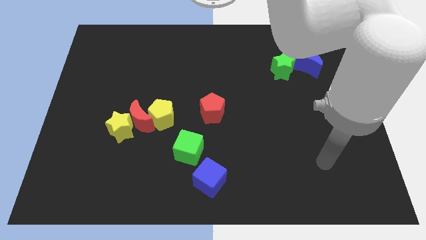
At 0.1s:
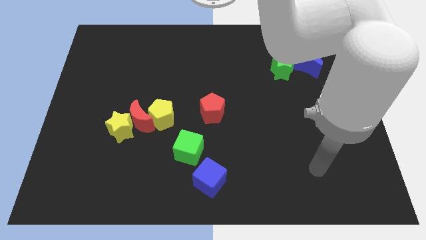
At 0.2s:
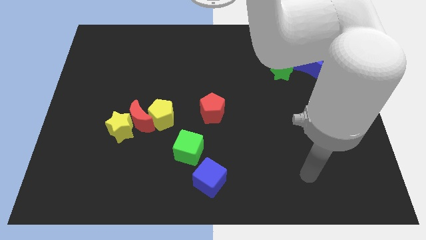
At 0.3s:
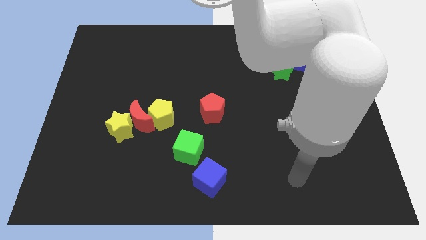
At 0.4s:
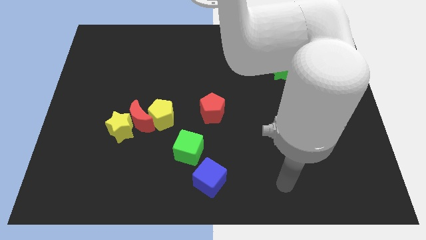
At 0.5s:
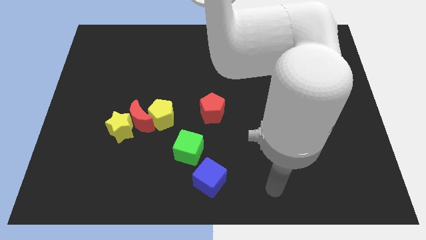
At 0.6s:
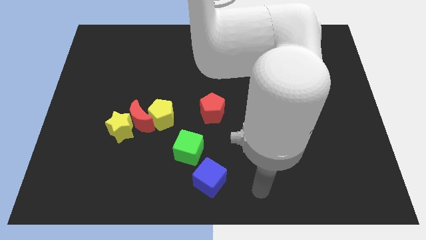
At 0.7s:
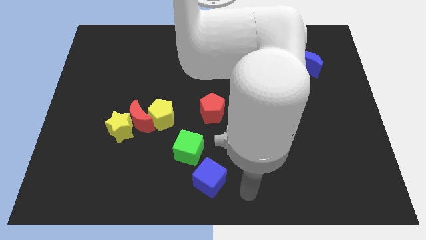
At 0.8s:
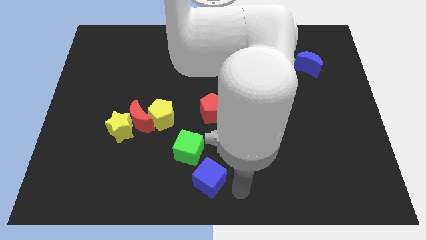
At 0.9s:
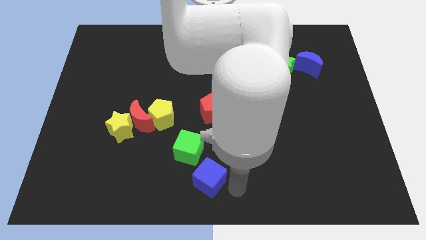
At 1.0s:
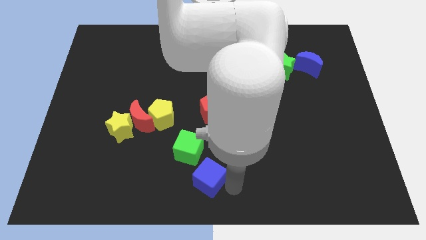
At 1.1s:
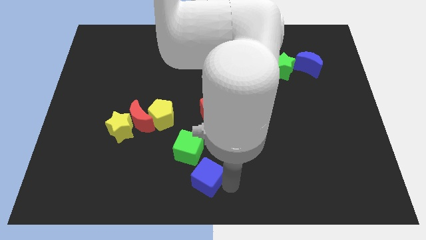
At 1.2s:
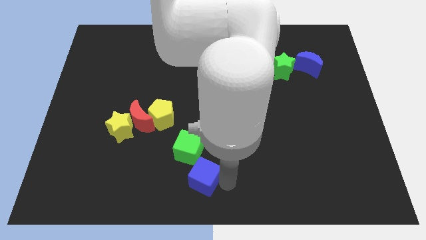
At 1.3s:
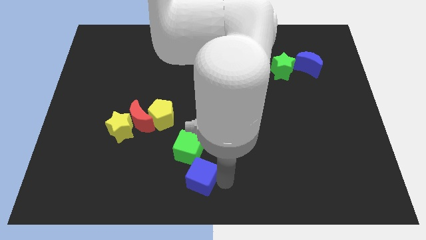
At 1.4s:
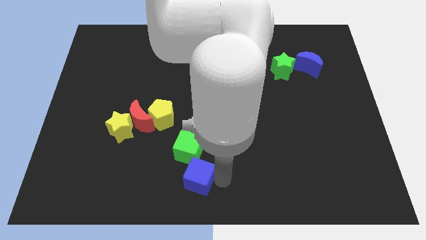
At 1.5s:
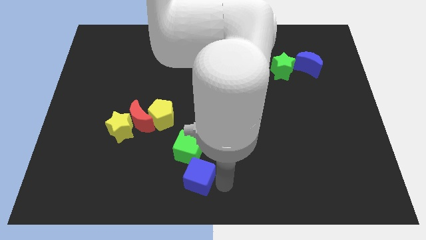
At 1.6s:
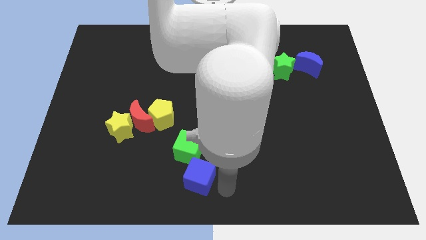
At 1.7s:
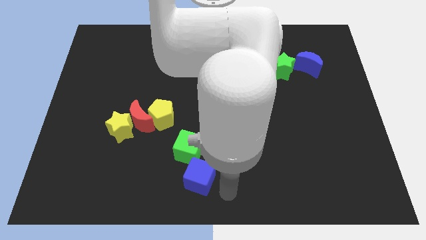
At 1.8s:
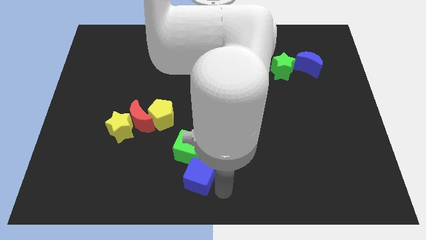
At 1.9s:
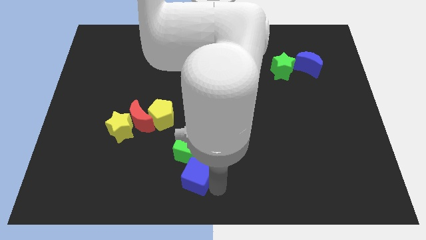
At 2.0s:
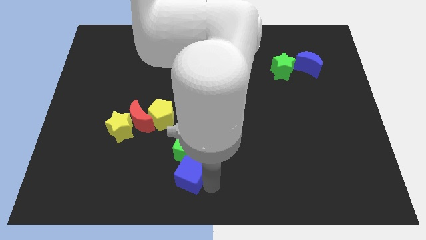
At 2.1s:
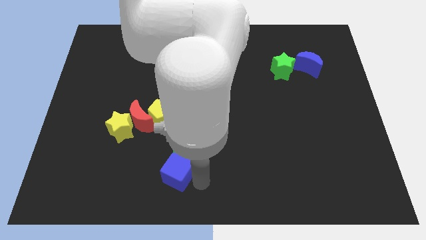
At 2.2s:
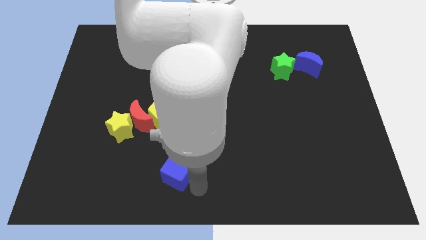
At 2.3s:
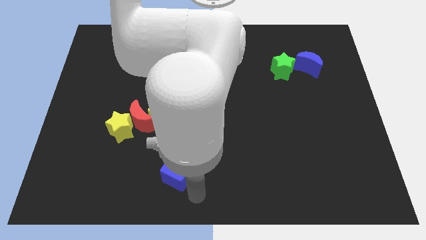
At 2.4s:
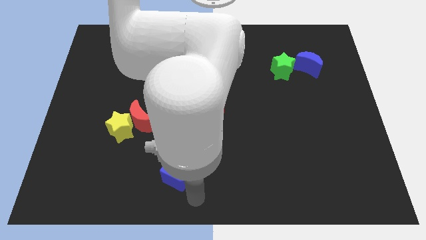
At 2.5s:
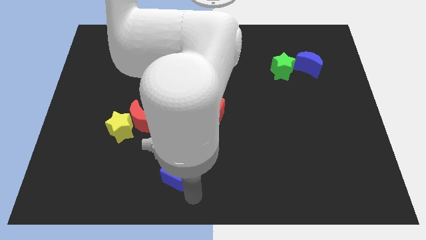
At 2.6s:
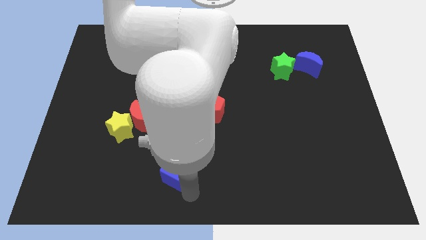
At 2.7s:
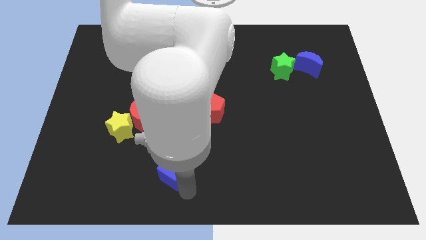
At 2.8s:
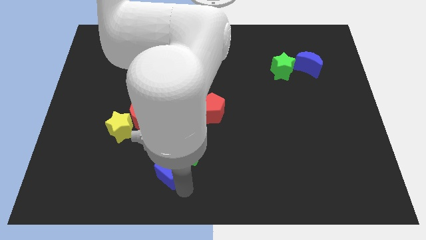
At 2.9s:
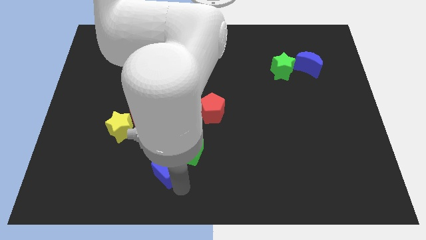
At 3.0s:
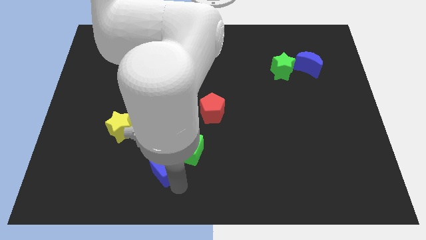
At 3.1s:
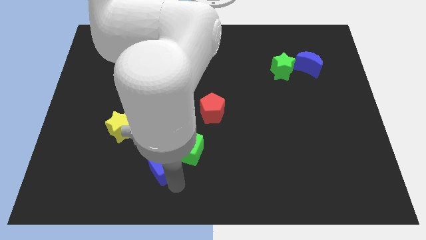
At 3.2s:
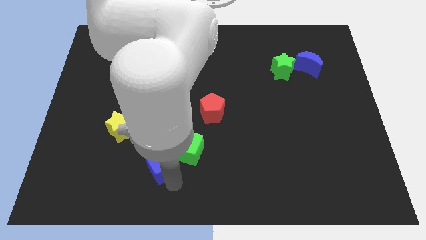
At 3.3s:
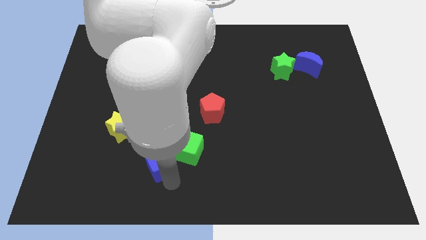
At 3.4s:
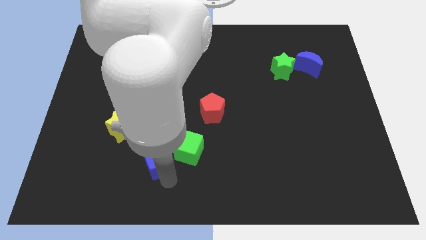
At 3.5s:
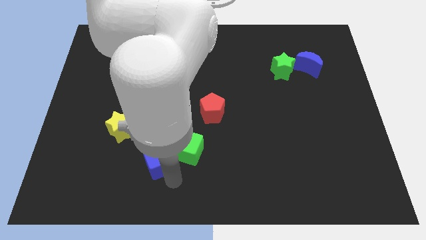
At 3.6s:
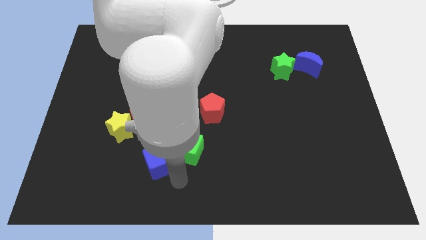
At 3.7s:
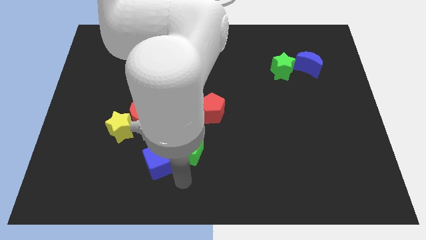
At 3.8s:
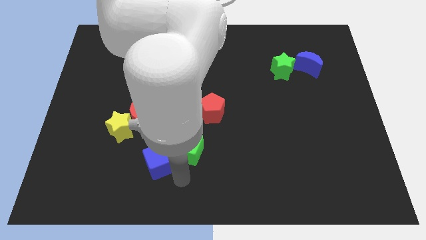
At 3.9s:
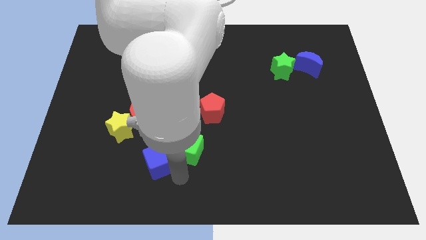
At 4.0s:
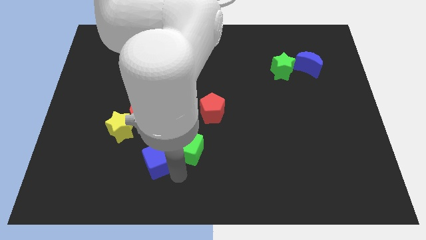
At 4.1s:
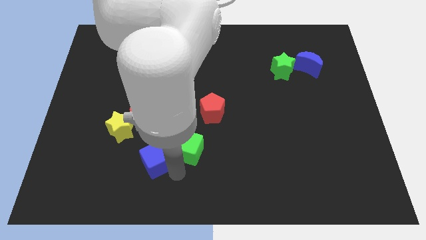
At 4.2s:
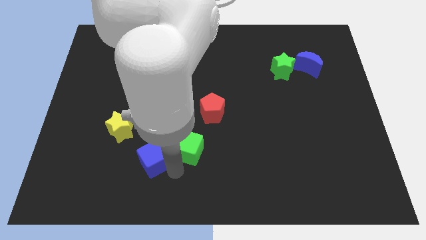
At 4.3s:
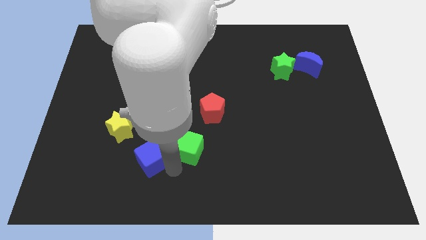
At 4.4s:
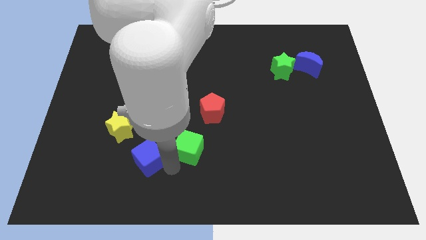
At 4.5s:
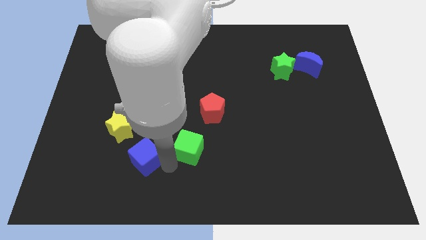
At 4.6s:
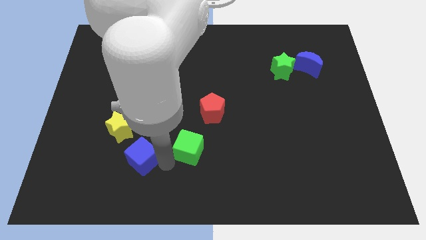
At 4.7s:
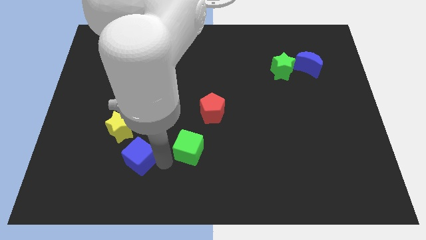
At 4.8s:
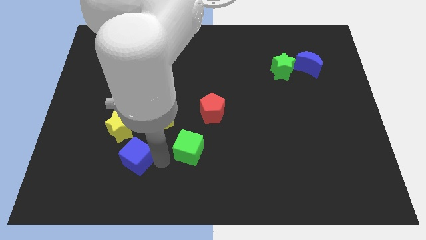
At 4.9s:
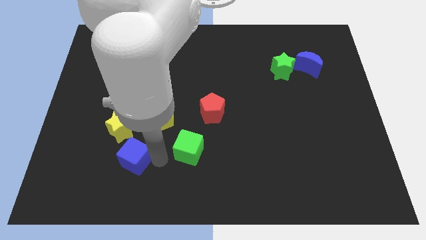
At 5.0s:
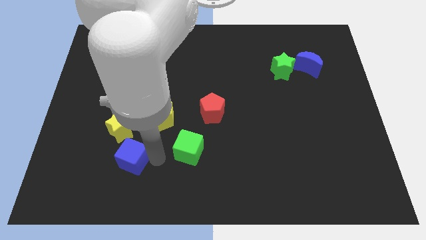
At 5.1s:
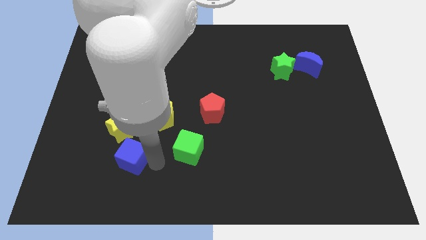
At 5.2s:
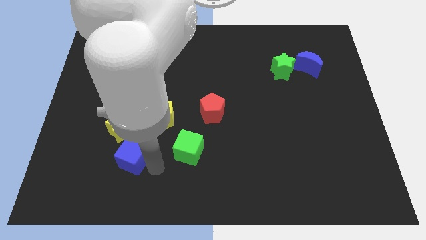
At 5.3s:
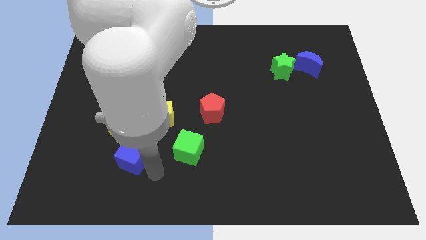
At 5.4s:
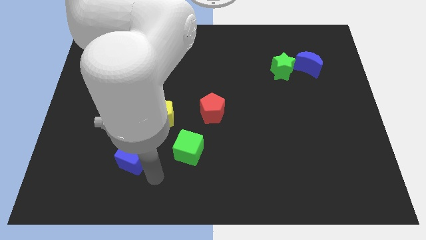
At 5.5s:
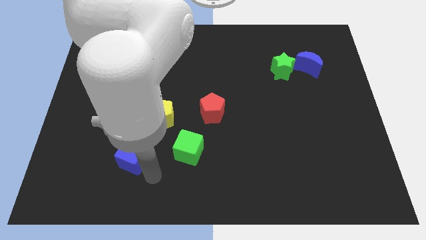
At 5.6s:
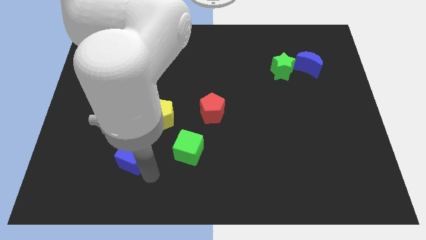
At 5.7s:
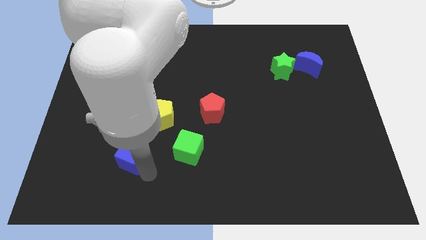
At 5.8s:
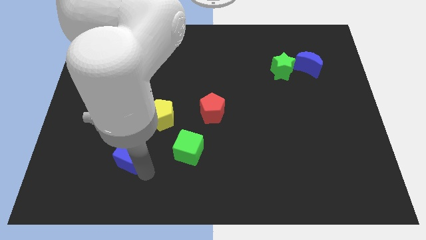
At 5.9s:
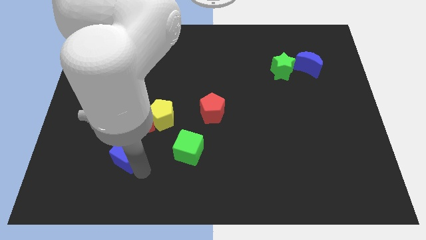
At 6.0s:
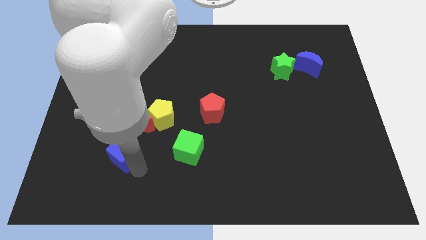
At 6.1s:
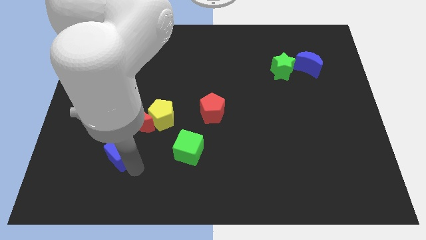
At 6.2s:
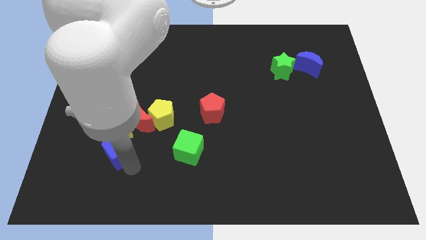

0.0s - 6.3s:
push the blue cube to the yellow star

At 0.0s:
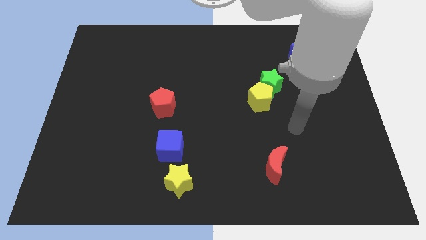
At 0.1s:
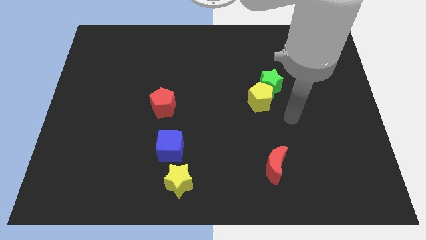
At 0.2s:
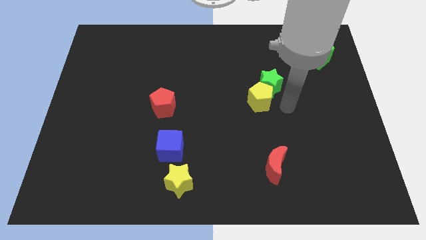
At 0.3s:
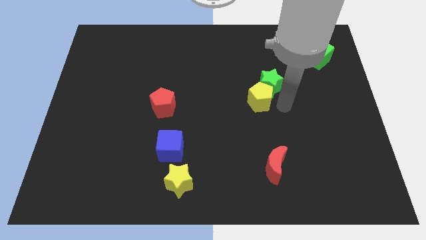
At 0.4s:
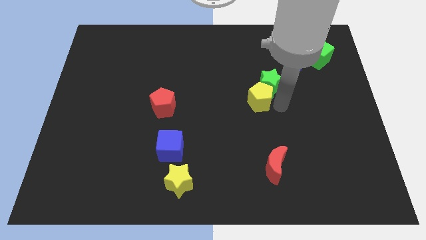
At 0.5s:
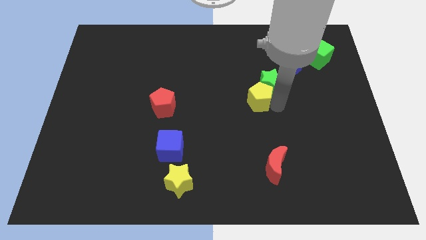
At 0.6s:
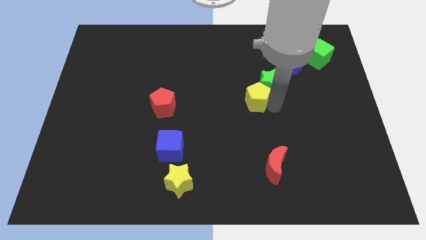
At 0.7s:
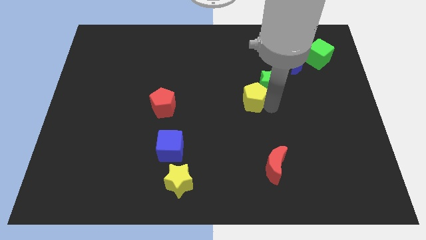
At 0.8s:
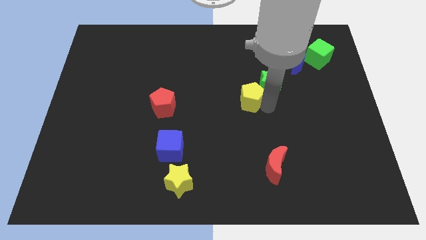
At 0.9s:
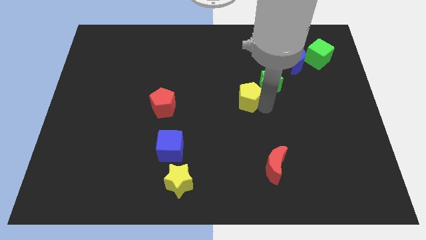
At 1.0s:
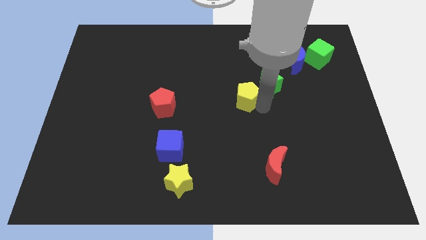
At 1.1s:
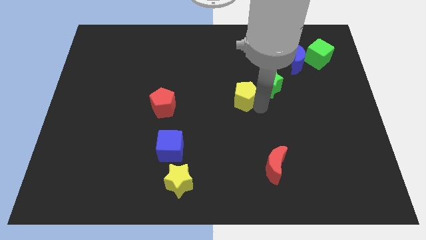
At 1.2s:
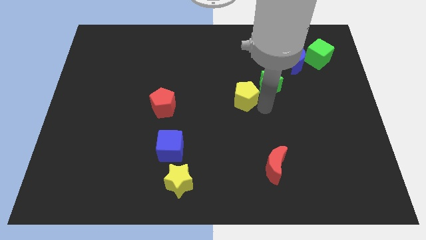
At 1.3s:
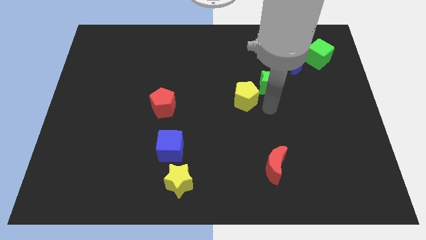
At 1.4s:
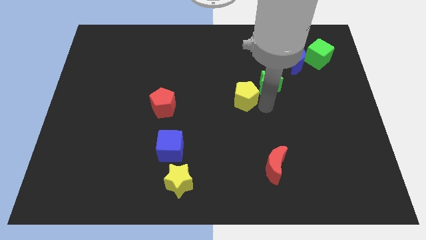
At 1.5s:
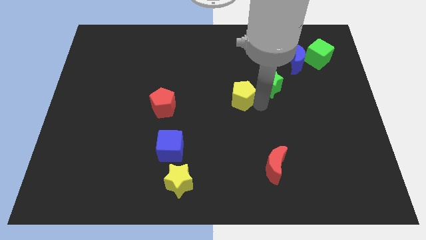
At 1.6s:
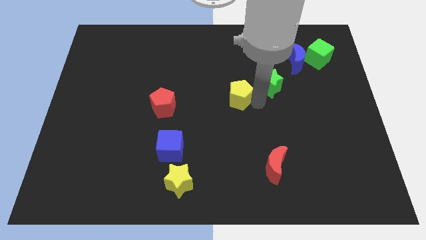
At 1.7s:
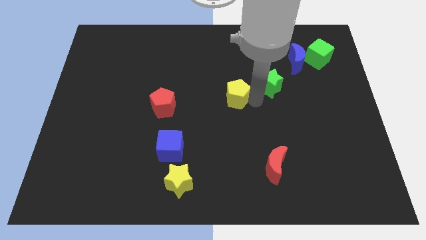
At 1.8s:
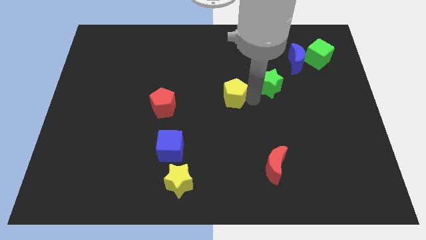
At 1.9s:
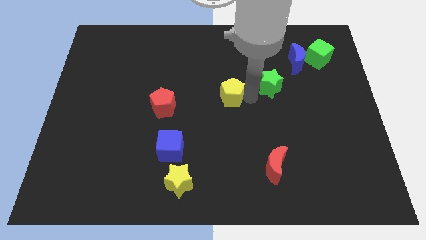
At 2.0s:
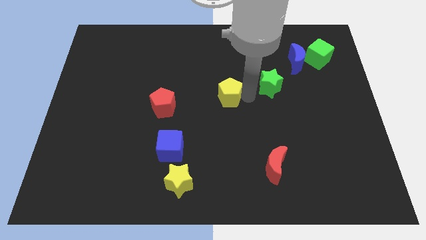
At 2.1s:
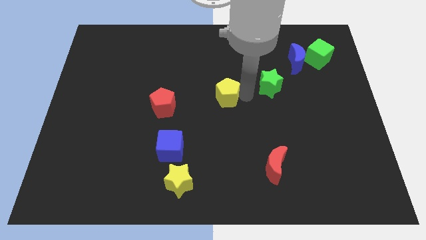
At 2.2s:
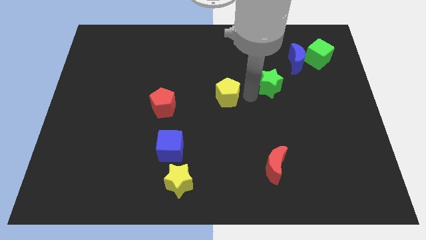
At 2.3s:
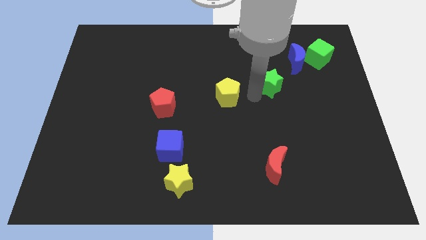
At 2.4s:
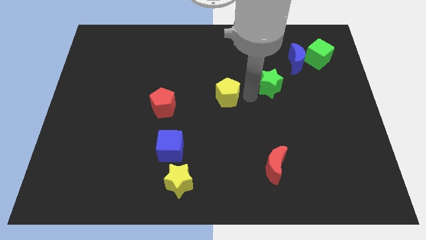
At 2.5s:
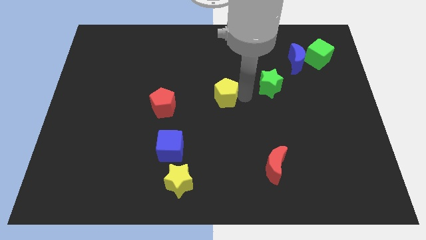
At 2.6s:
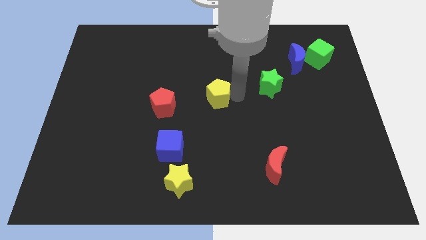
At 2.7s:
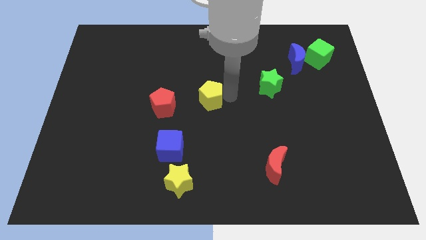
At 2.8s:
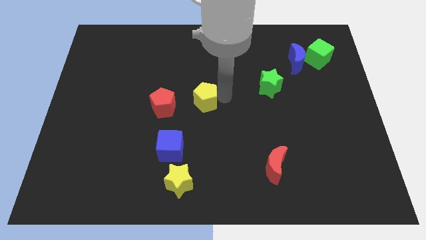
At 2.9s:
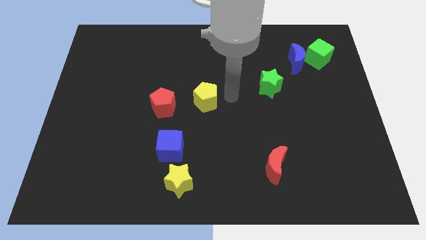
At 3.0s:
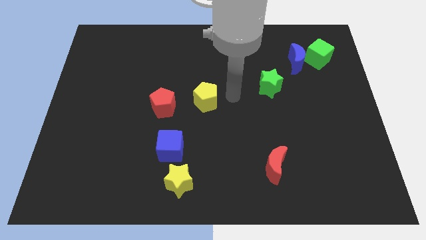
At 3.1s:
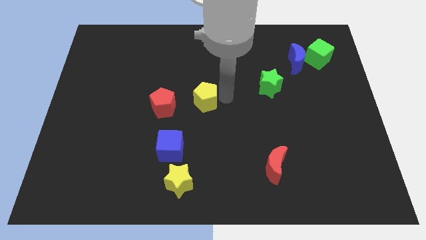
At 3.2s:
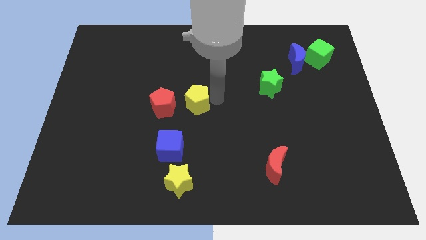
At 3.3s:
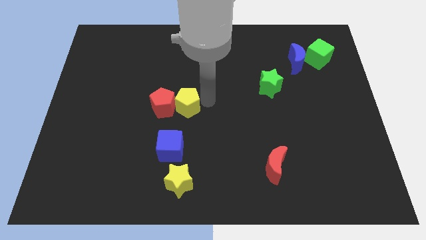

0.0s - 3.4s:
push the yellow pentagon to the red pentagon
